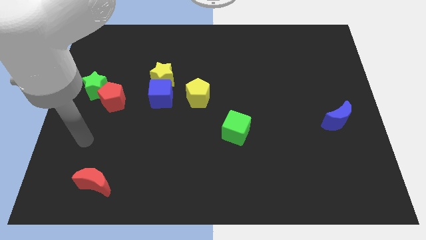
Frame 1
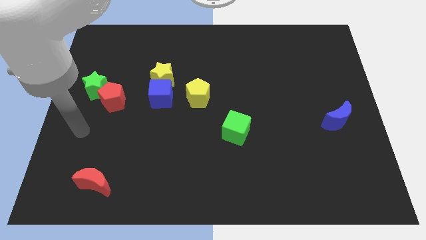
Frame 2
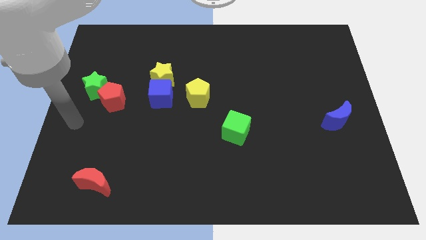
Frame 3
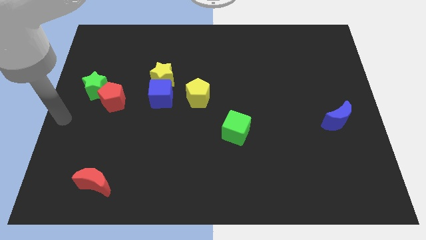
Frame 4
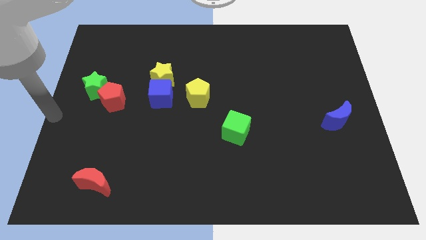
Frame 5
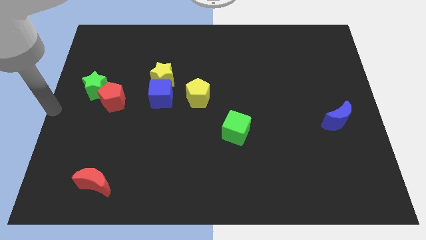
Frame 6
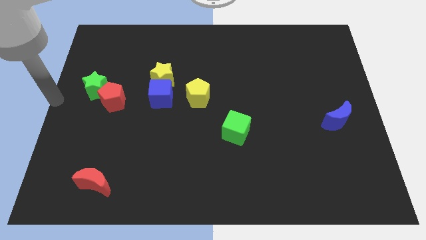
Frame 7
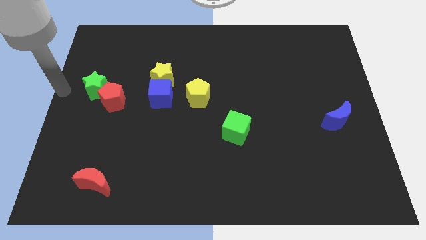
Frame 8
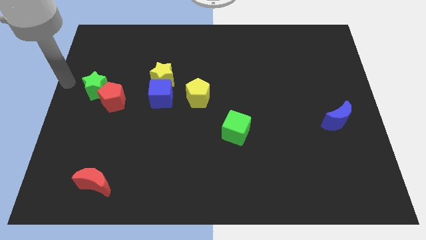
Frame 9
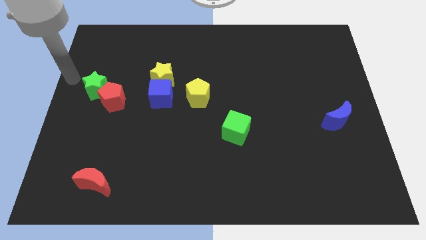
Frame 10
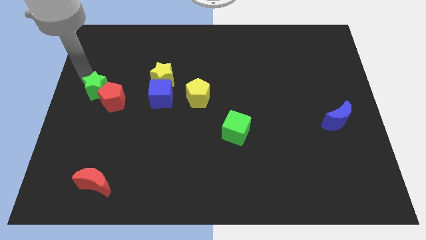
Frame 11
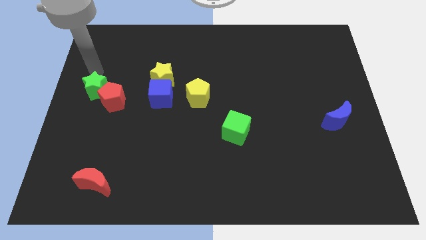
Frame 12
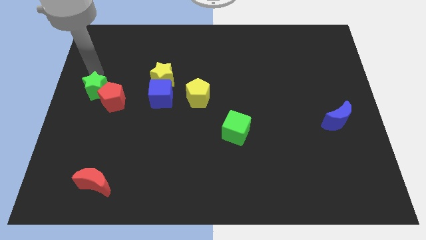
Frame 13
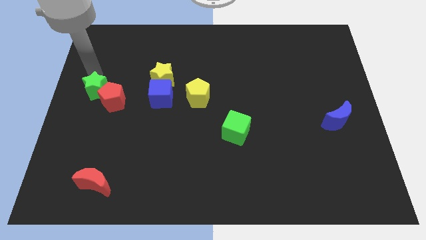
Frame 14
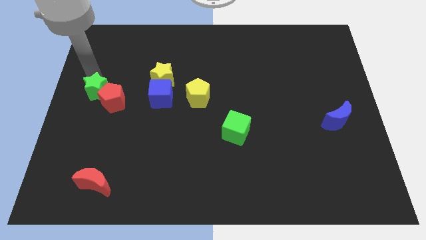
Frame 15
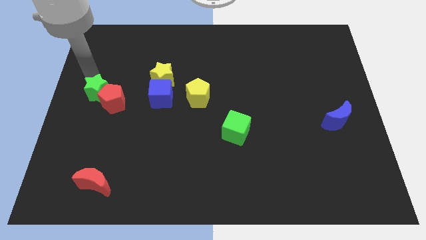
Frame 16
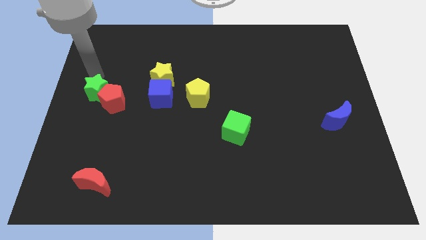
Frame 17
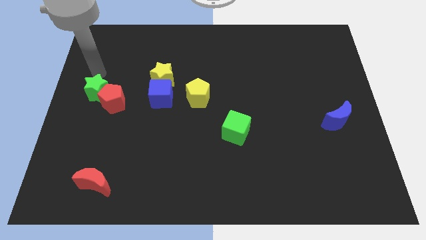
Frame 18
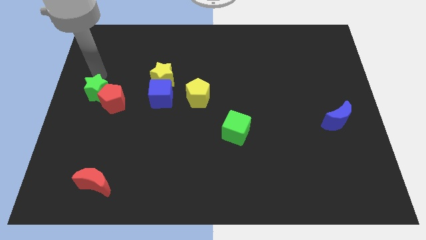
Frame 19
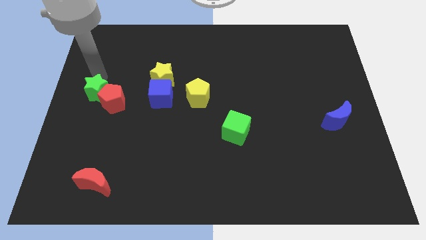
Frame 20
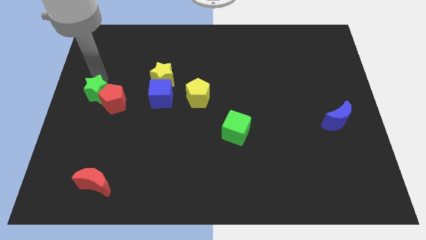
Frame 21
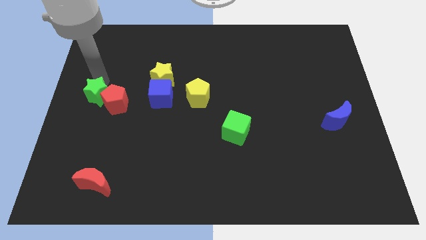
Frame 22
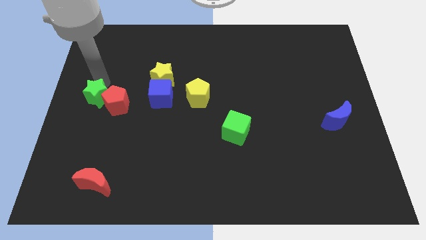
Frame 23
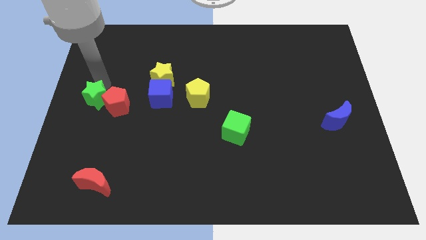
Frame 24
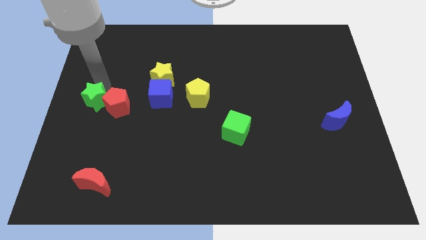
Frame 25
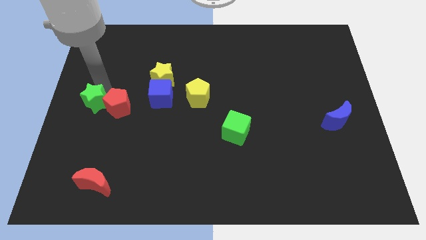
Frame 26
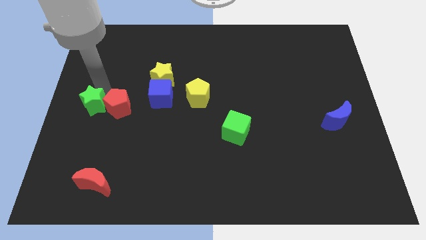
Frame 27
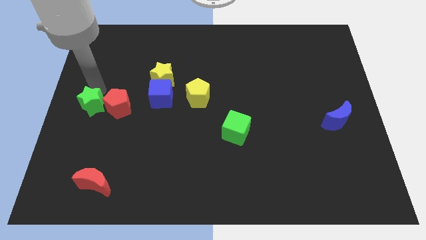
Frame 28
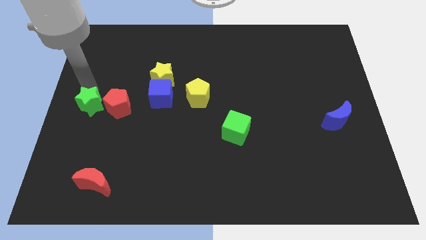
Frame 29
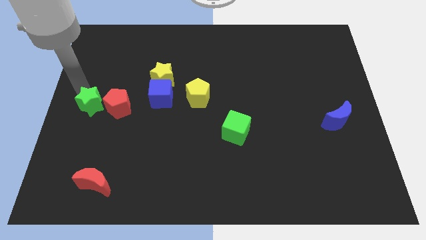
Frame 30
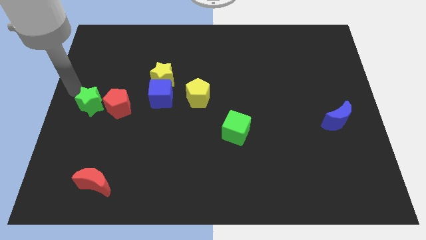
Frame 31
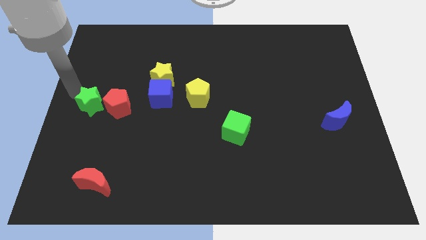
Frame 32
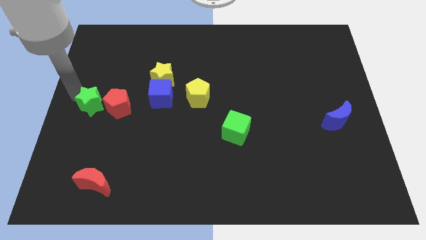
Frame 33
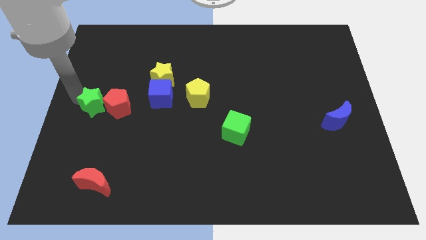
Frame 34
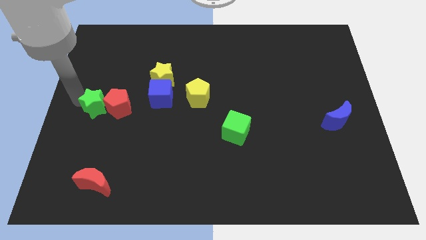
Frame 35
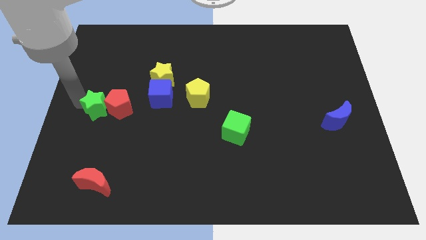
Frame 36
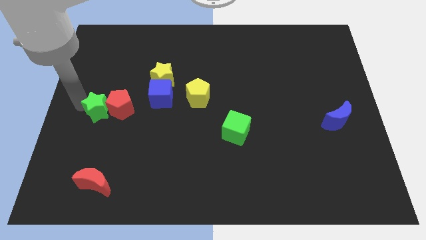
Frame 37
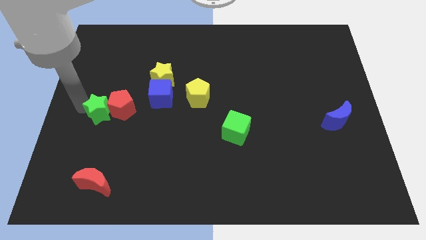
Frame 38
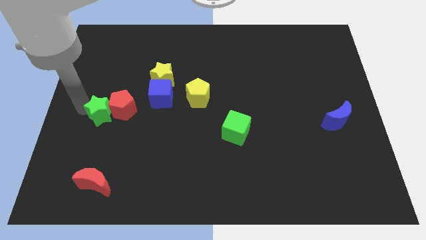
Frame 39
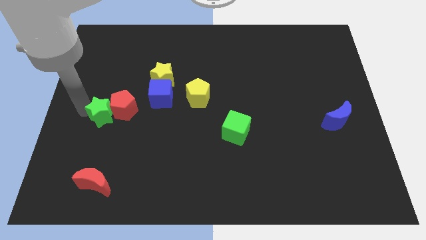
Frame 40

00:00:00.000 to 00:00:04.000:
slightly move the green star down and right

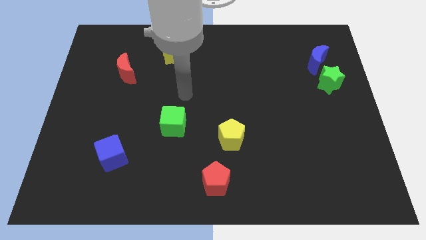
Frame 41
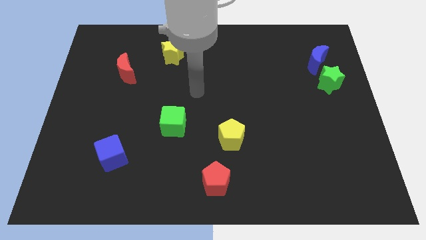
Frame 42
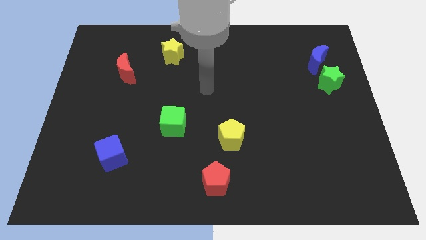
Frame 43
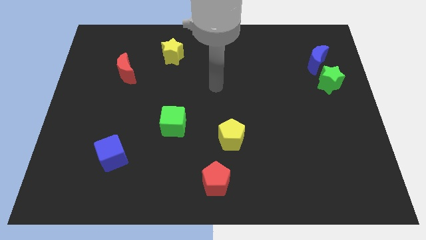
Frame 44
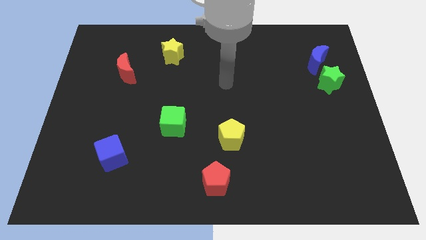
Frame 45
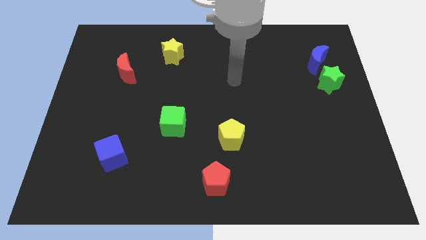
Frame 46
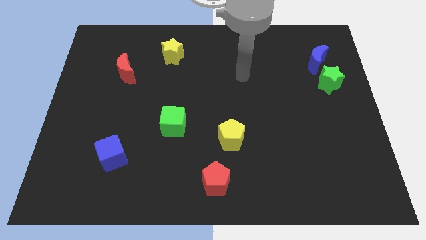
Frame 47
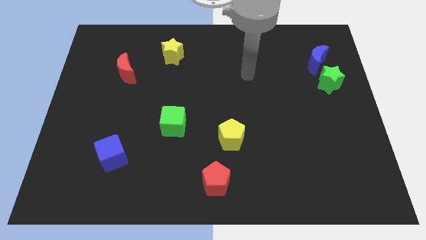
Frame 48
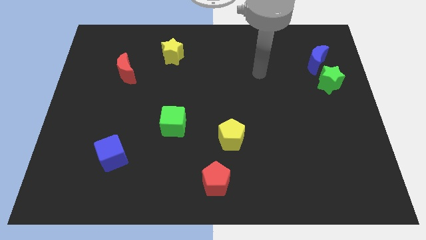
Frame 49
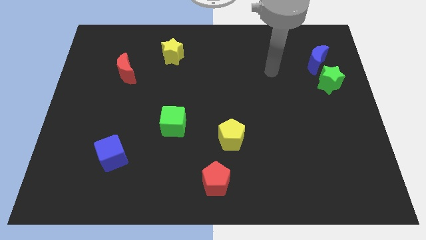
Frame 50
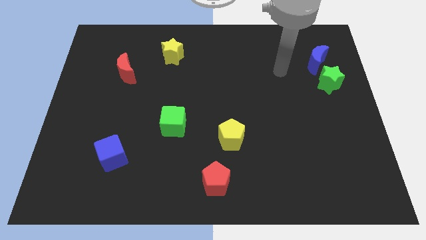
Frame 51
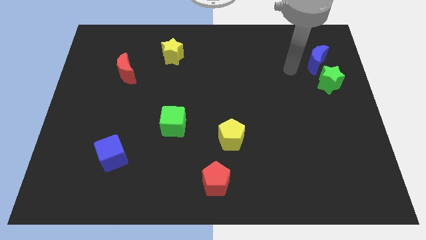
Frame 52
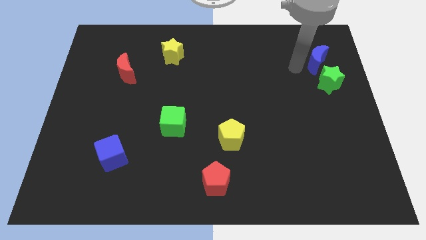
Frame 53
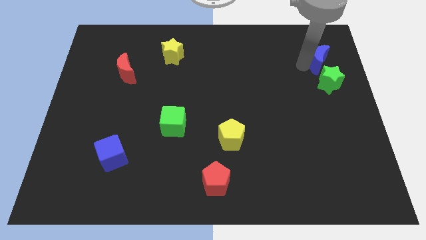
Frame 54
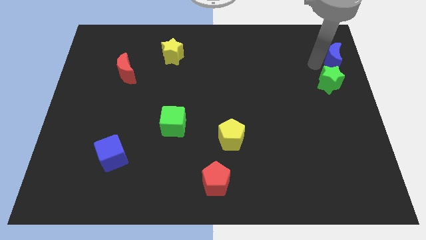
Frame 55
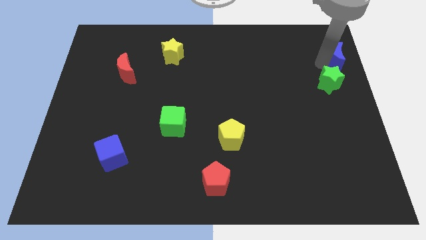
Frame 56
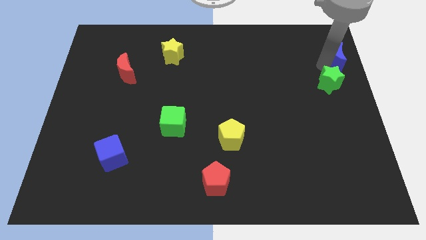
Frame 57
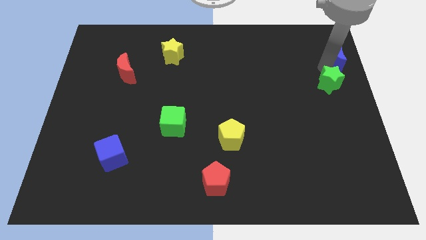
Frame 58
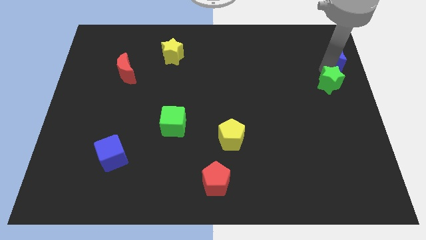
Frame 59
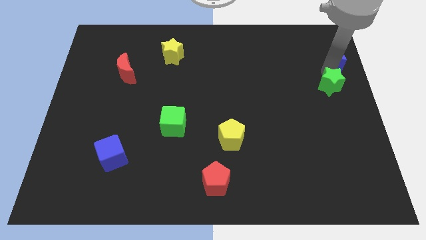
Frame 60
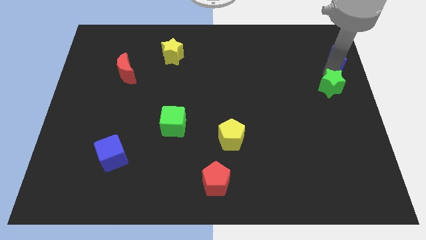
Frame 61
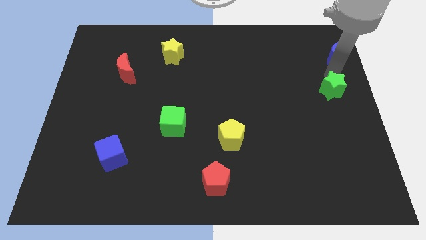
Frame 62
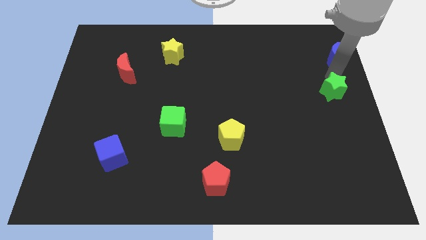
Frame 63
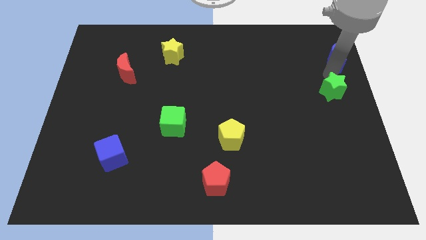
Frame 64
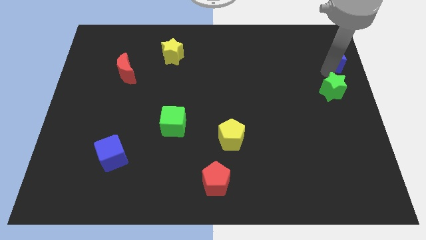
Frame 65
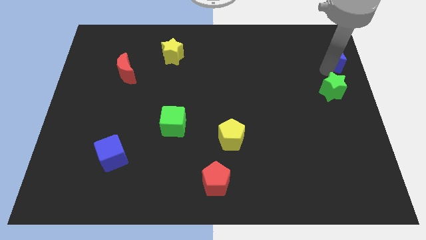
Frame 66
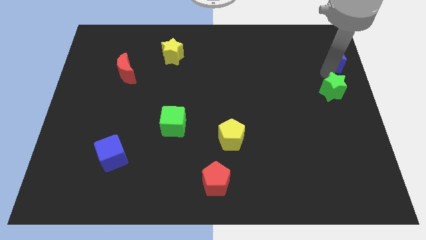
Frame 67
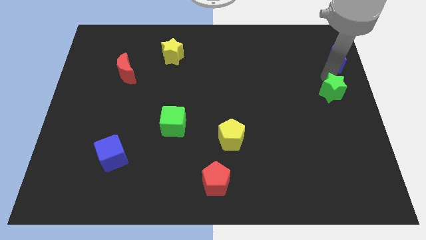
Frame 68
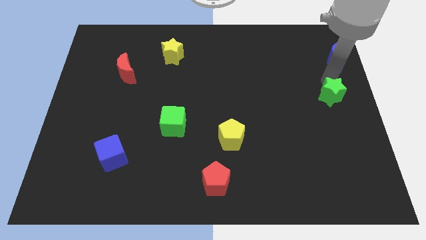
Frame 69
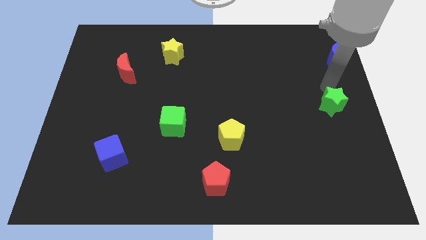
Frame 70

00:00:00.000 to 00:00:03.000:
push the green star a little down

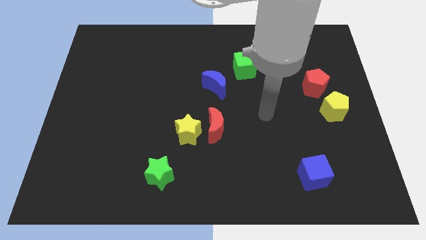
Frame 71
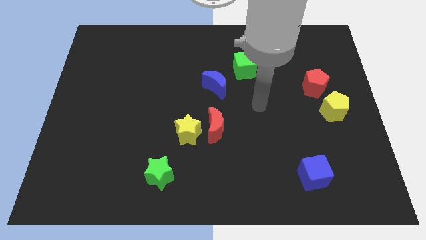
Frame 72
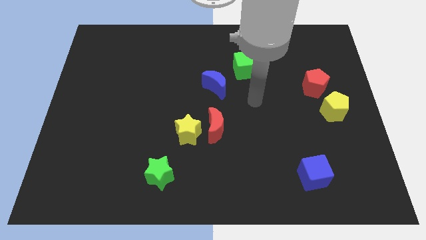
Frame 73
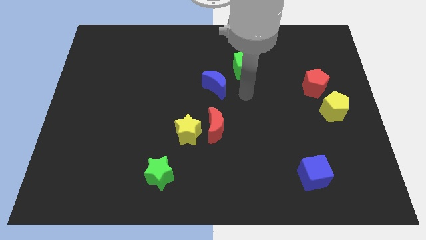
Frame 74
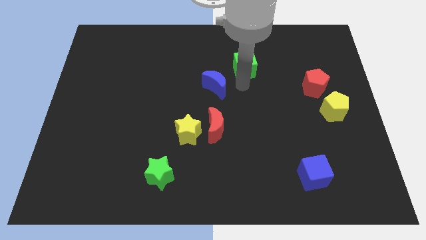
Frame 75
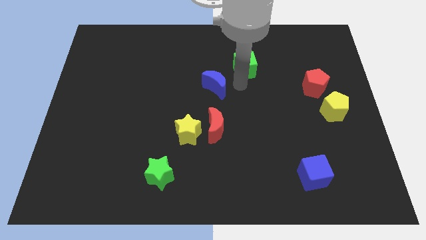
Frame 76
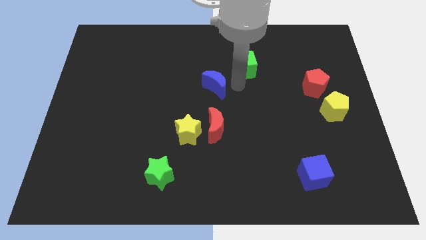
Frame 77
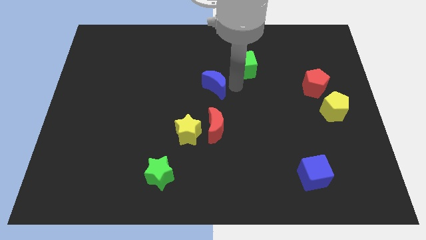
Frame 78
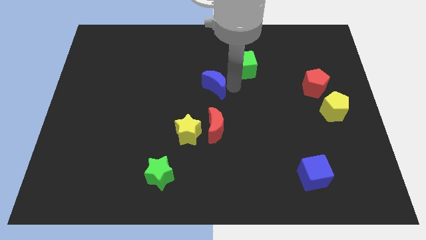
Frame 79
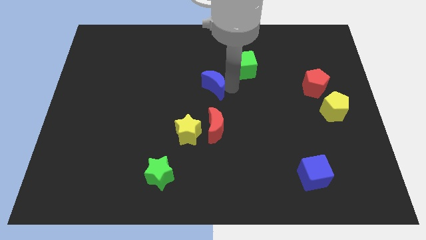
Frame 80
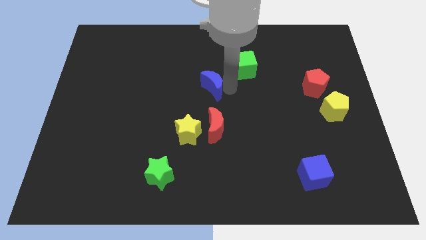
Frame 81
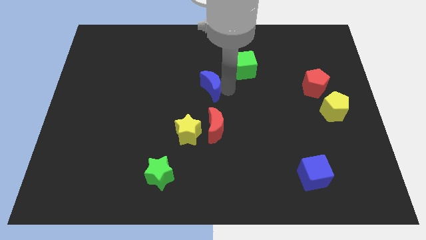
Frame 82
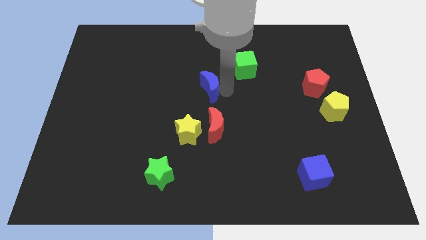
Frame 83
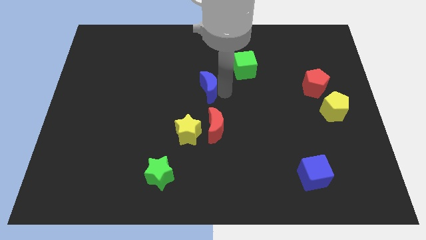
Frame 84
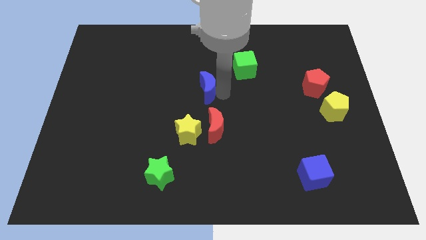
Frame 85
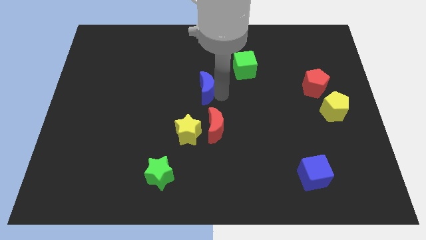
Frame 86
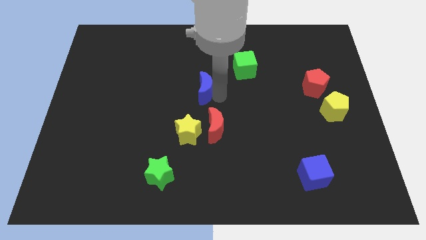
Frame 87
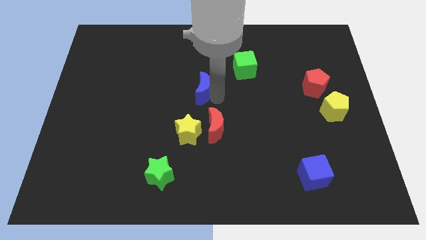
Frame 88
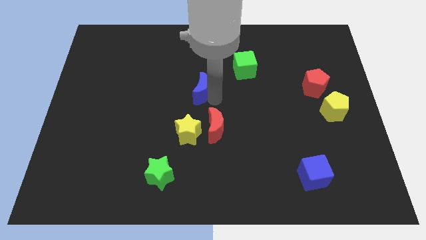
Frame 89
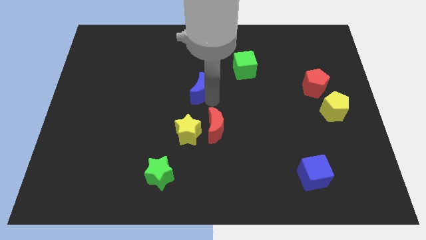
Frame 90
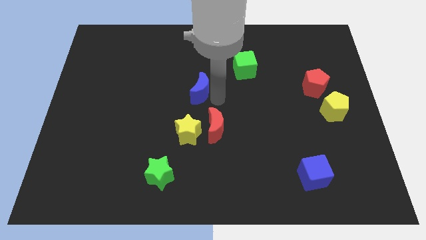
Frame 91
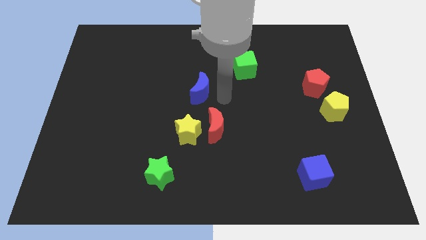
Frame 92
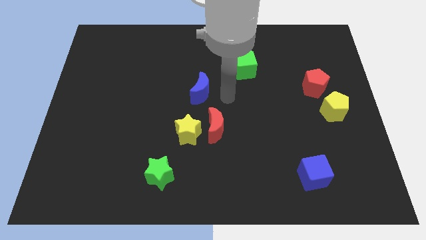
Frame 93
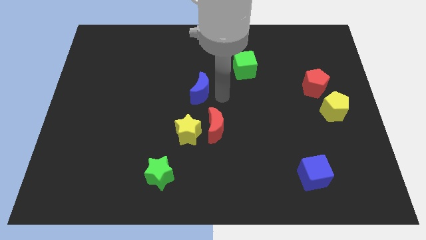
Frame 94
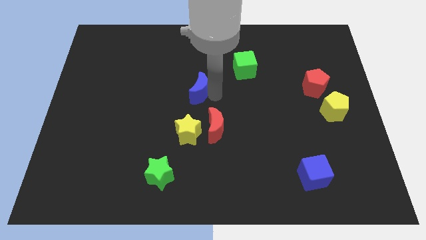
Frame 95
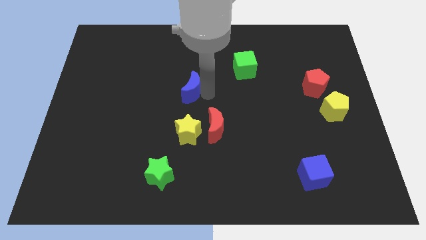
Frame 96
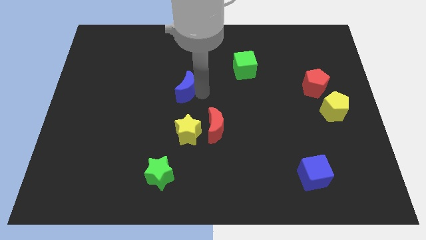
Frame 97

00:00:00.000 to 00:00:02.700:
move the blue moon left somewhat
